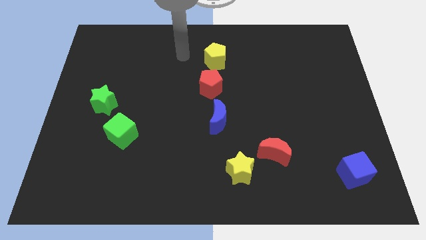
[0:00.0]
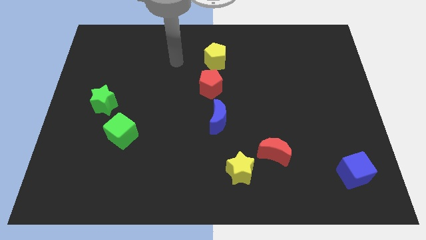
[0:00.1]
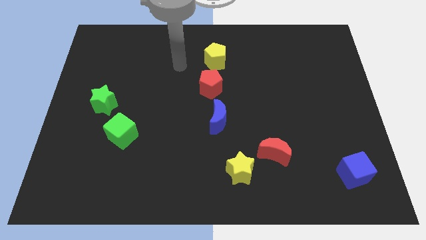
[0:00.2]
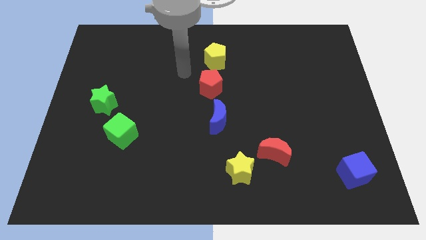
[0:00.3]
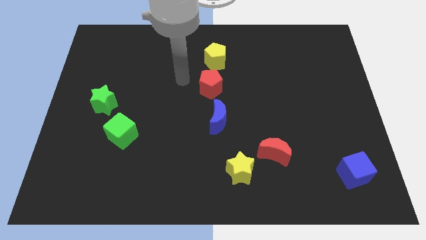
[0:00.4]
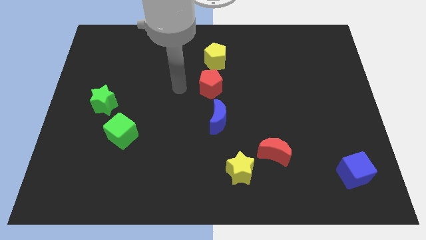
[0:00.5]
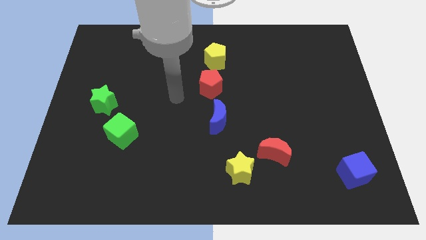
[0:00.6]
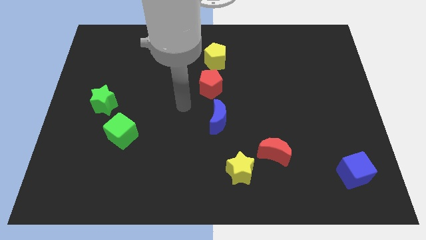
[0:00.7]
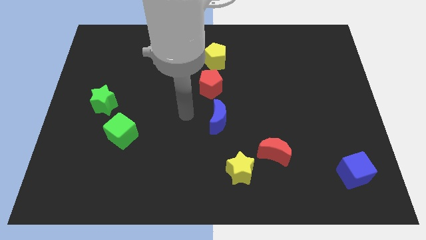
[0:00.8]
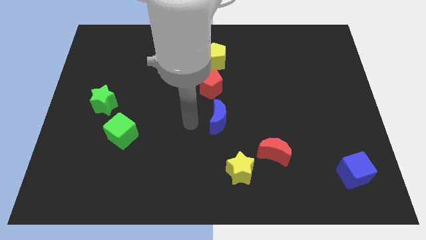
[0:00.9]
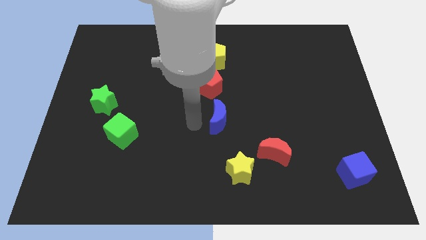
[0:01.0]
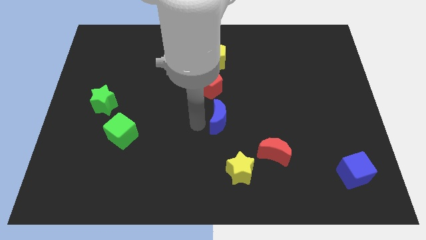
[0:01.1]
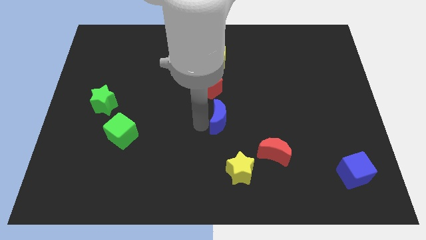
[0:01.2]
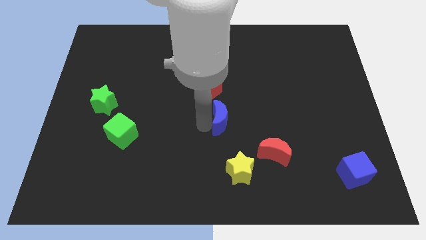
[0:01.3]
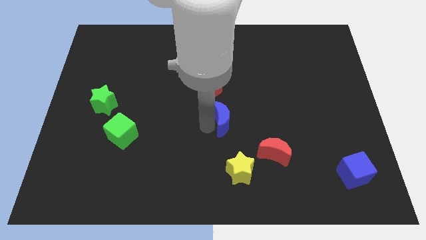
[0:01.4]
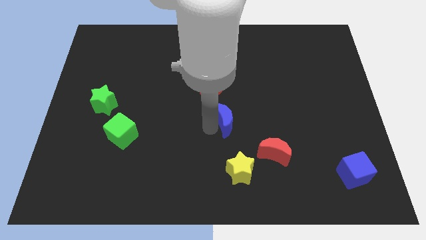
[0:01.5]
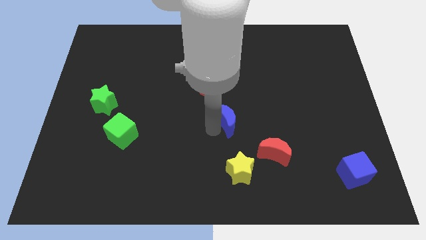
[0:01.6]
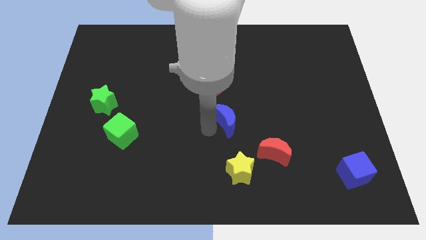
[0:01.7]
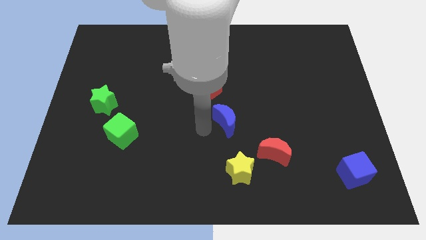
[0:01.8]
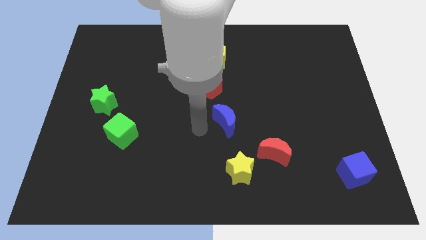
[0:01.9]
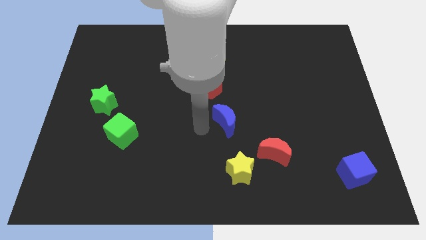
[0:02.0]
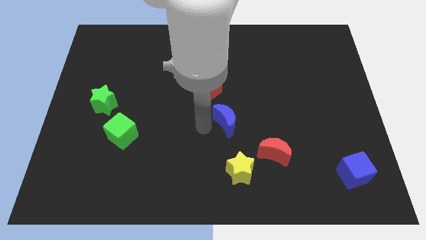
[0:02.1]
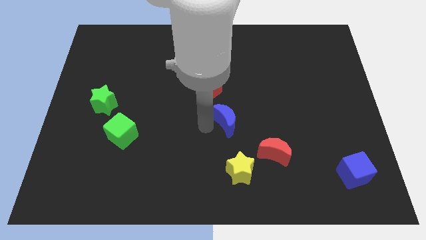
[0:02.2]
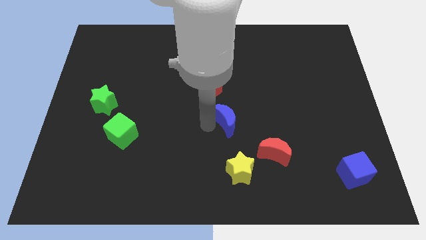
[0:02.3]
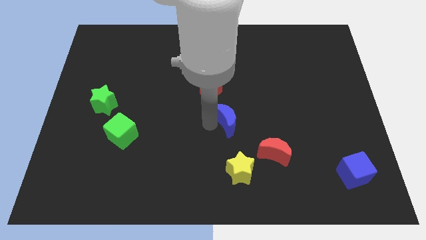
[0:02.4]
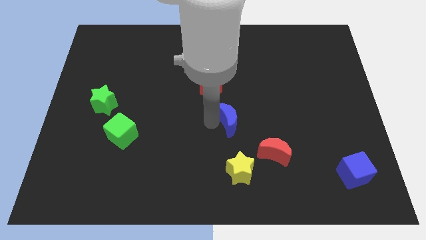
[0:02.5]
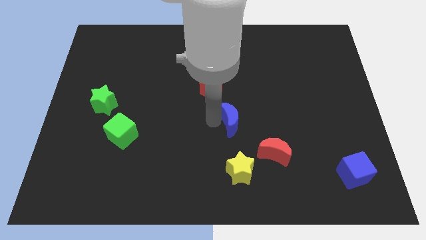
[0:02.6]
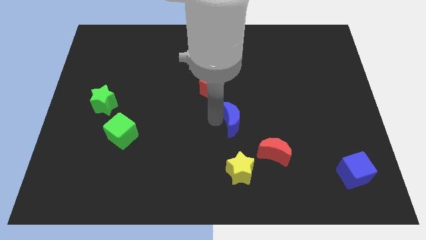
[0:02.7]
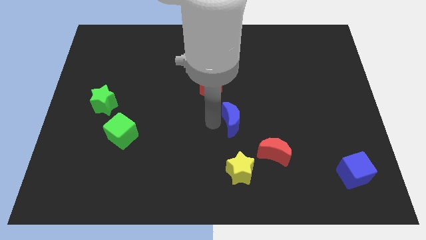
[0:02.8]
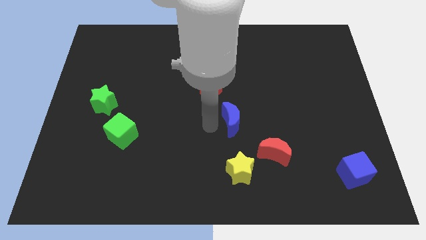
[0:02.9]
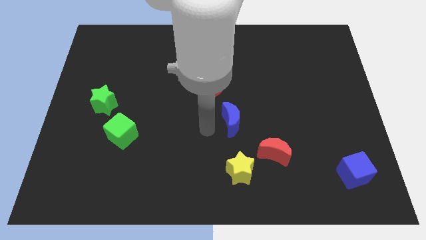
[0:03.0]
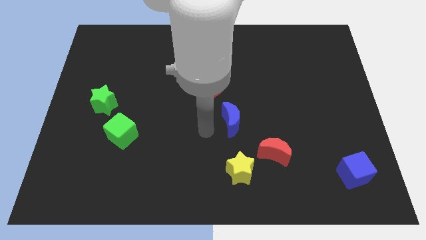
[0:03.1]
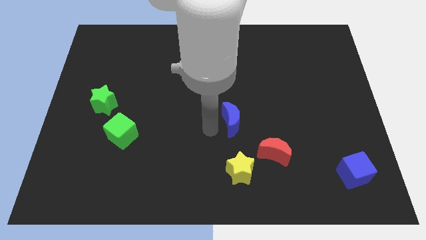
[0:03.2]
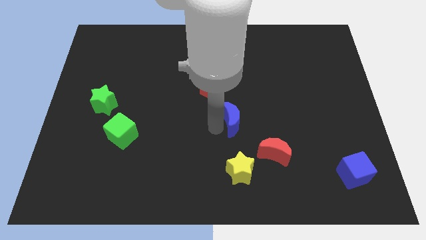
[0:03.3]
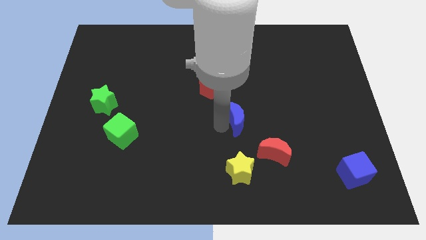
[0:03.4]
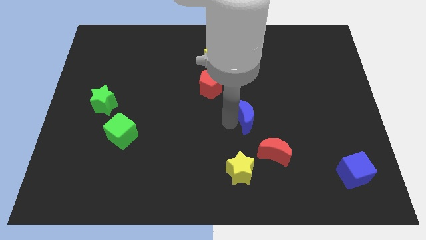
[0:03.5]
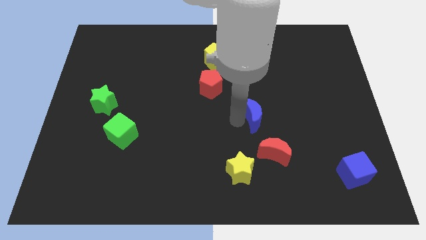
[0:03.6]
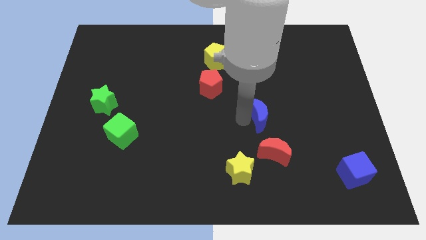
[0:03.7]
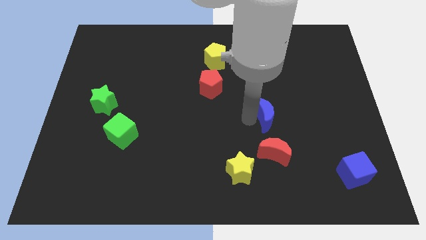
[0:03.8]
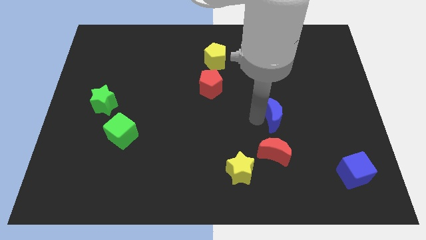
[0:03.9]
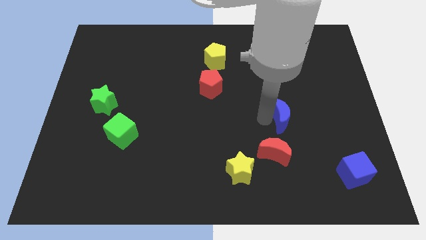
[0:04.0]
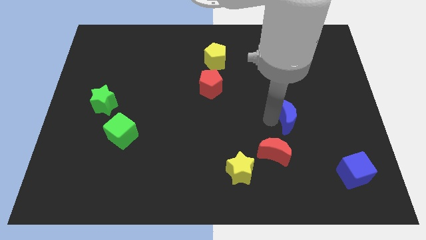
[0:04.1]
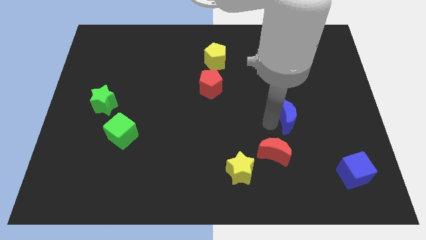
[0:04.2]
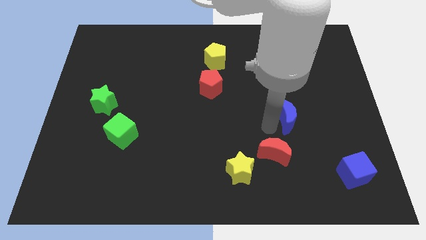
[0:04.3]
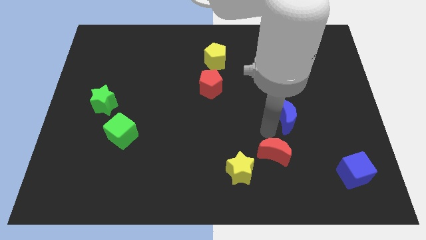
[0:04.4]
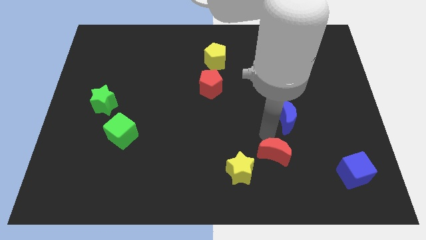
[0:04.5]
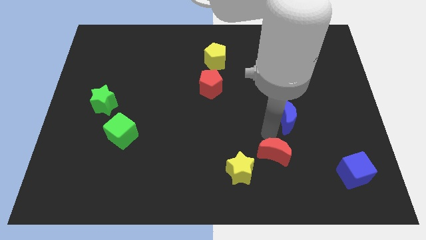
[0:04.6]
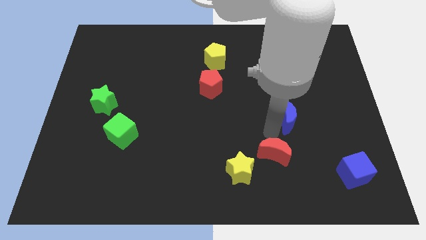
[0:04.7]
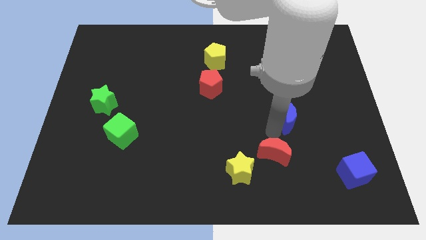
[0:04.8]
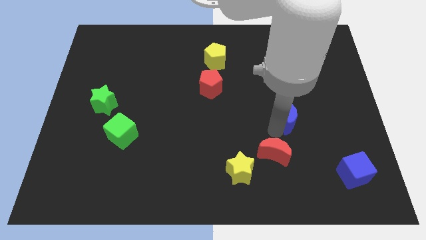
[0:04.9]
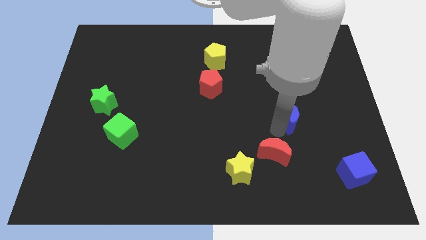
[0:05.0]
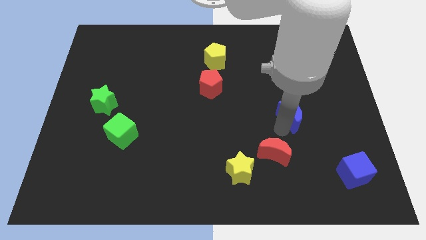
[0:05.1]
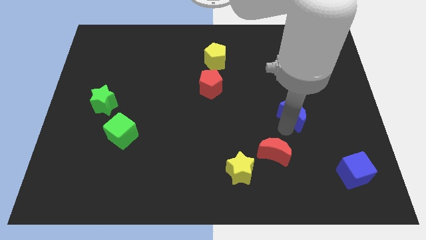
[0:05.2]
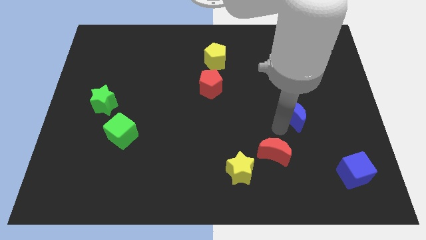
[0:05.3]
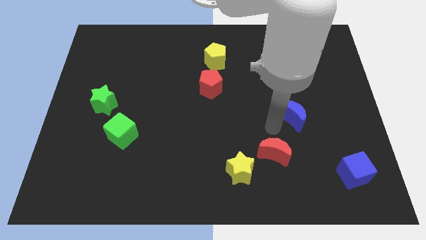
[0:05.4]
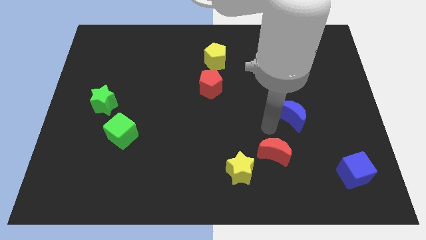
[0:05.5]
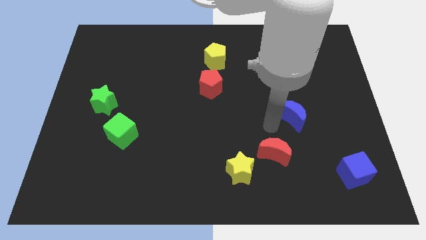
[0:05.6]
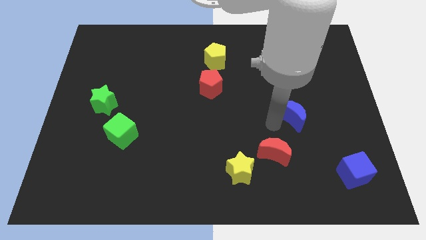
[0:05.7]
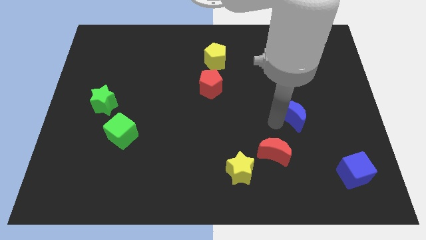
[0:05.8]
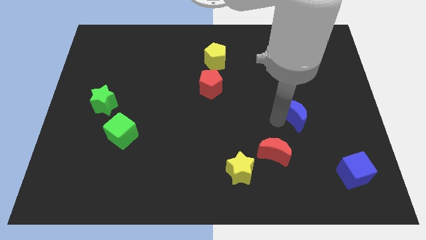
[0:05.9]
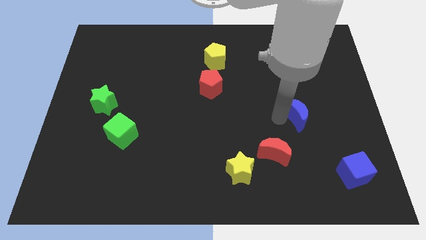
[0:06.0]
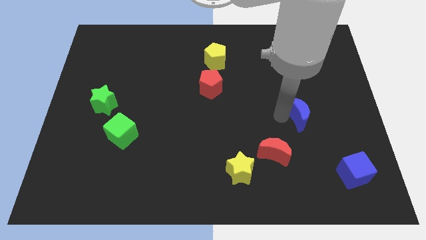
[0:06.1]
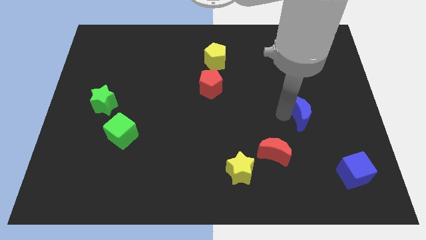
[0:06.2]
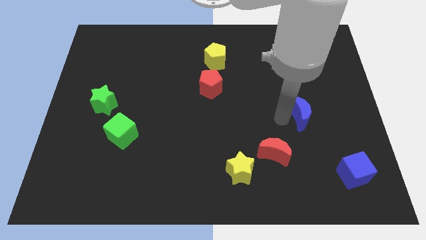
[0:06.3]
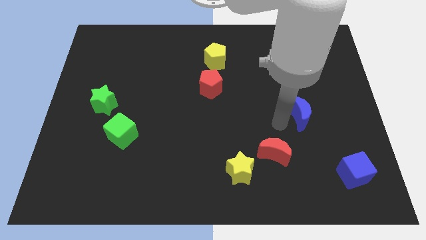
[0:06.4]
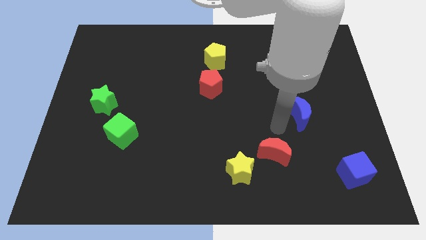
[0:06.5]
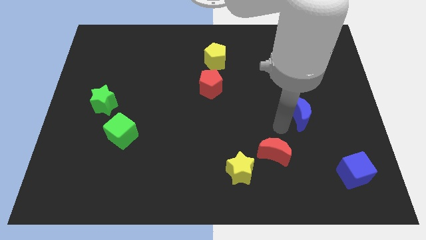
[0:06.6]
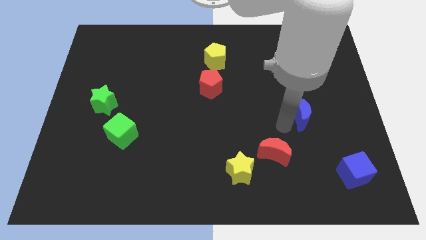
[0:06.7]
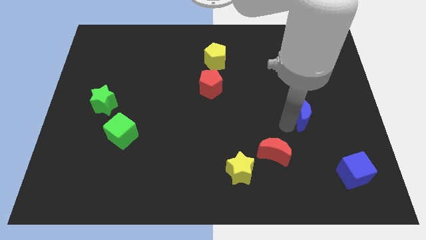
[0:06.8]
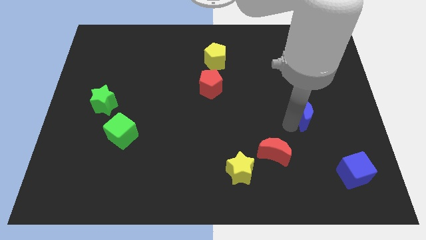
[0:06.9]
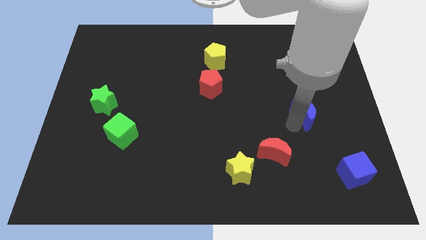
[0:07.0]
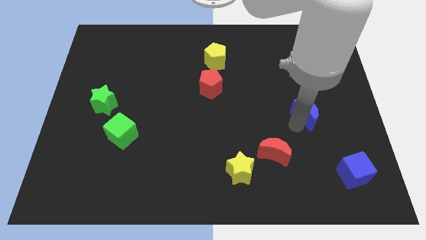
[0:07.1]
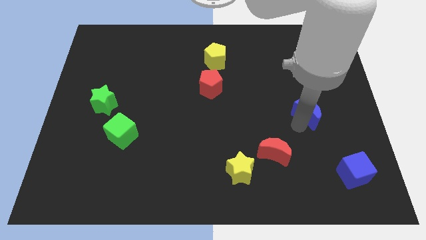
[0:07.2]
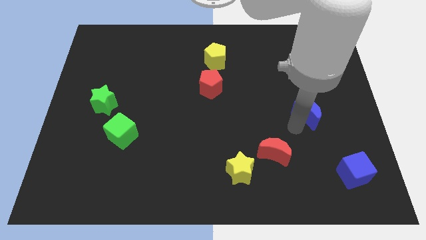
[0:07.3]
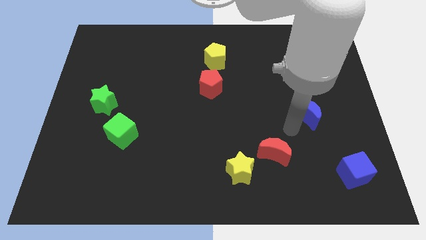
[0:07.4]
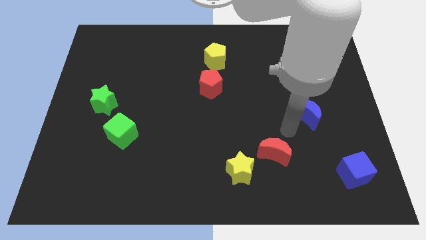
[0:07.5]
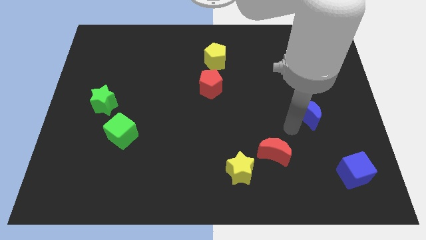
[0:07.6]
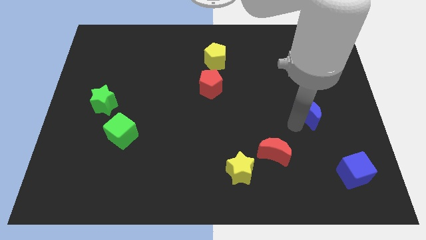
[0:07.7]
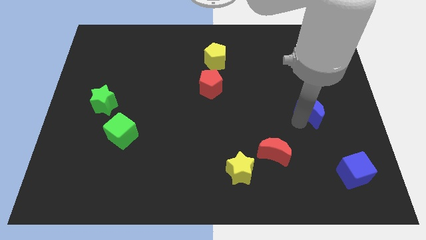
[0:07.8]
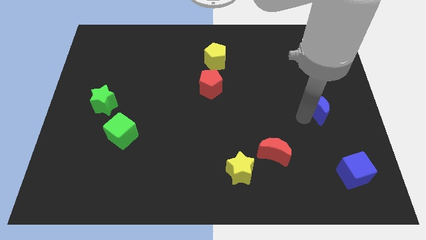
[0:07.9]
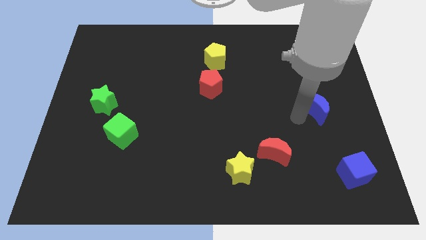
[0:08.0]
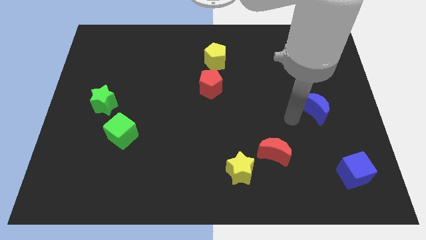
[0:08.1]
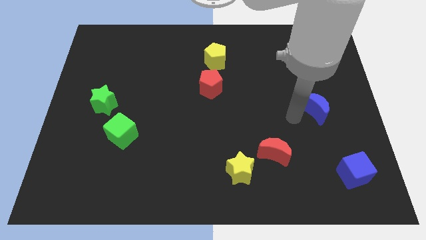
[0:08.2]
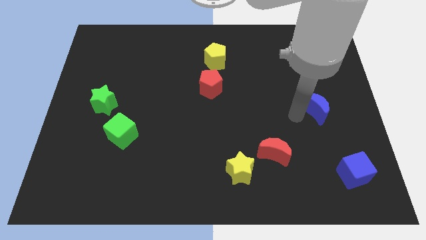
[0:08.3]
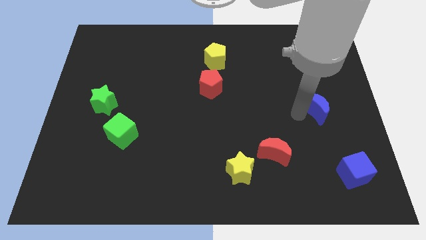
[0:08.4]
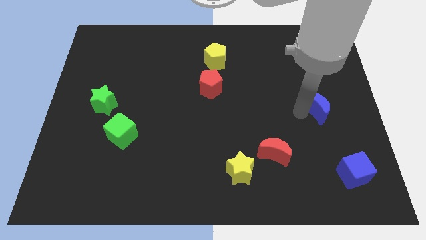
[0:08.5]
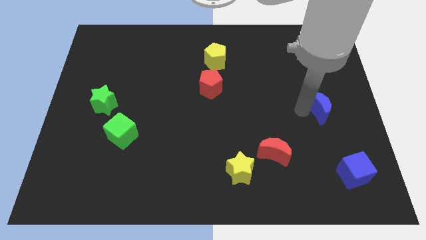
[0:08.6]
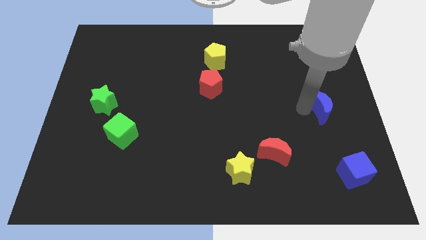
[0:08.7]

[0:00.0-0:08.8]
push the blue moon to the right side
